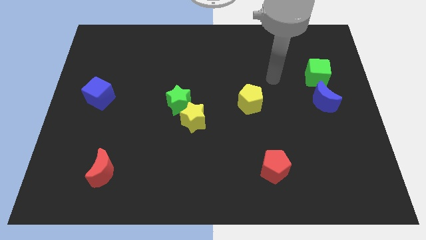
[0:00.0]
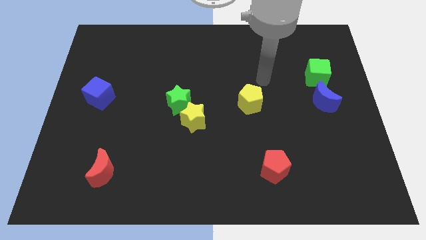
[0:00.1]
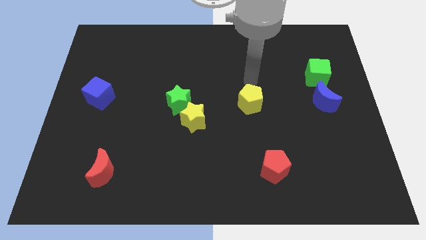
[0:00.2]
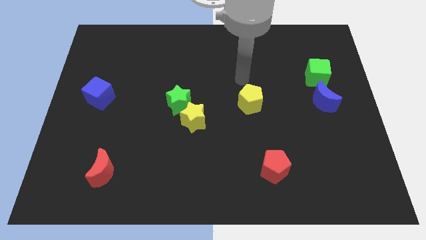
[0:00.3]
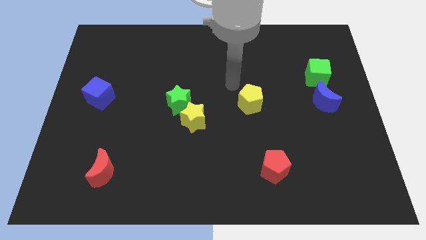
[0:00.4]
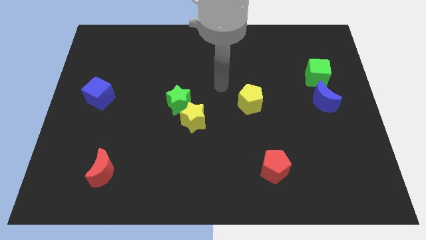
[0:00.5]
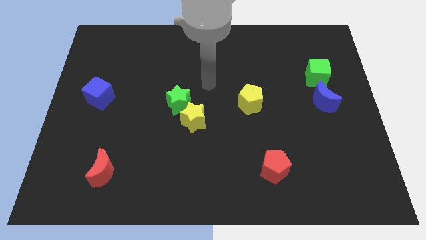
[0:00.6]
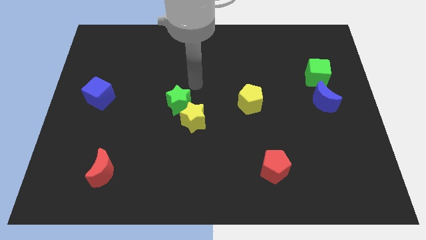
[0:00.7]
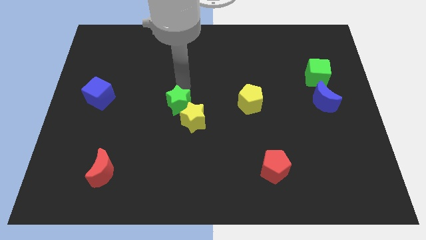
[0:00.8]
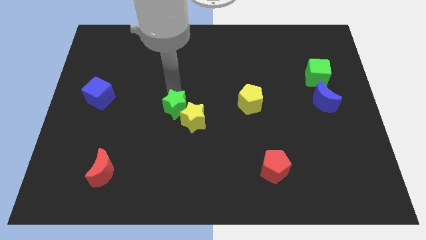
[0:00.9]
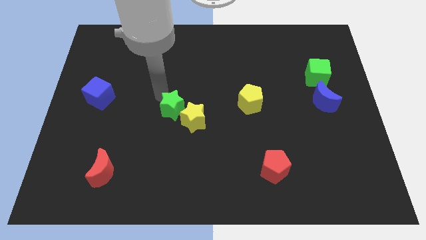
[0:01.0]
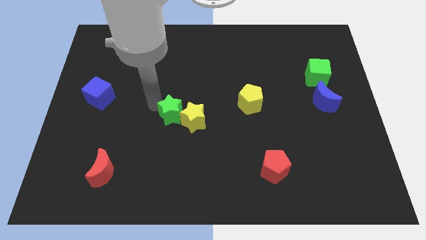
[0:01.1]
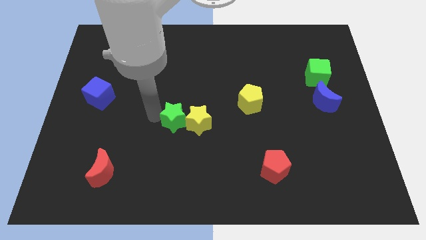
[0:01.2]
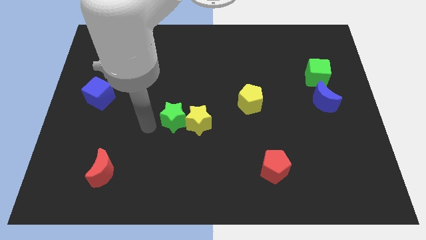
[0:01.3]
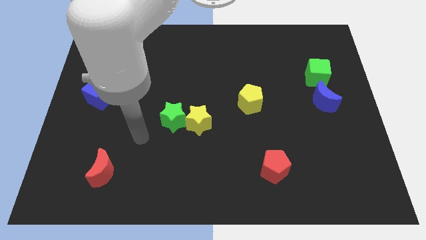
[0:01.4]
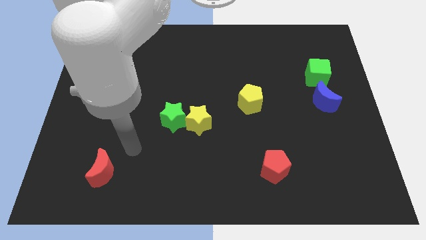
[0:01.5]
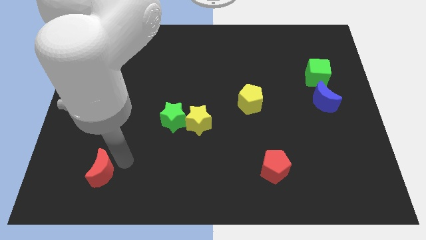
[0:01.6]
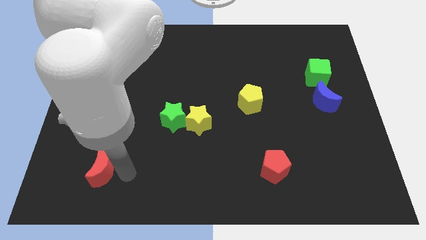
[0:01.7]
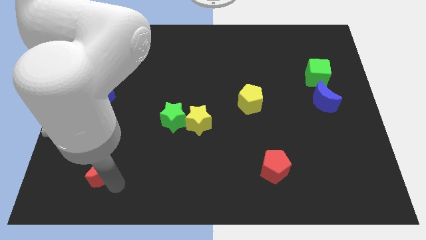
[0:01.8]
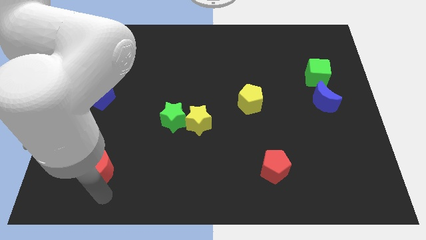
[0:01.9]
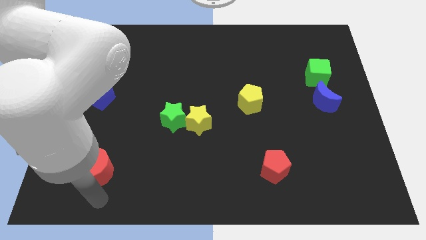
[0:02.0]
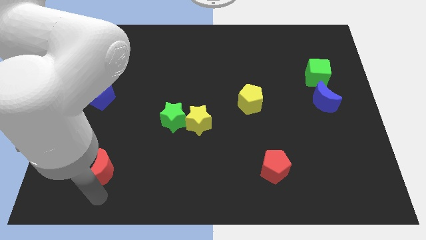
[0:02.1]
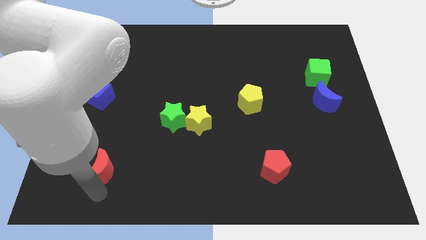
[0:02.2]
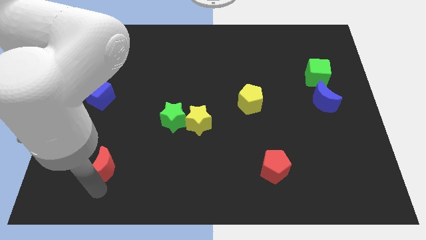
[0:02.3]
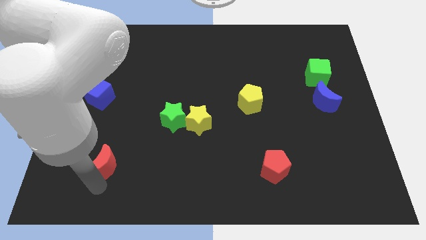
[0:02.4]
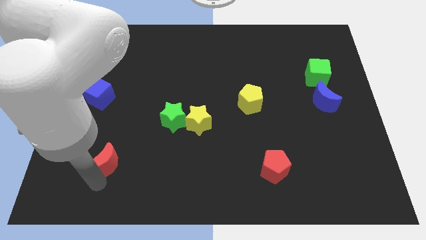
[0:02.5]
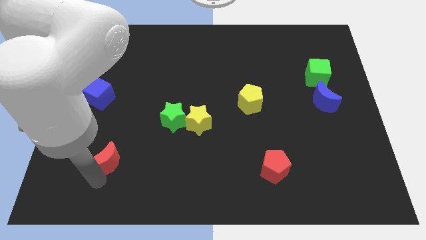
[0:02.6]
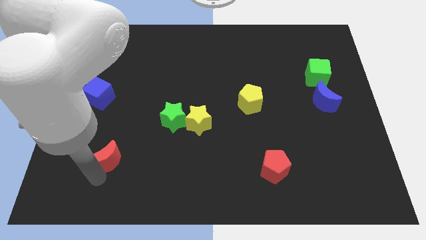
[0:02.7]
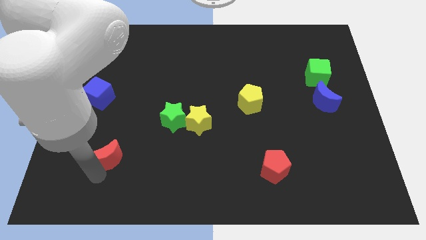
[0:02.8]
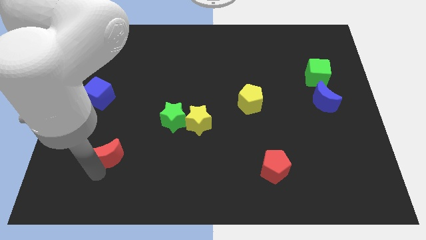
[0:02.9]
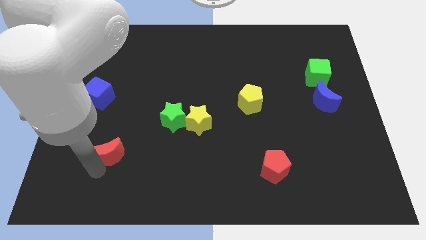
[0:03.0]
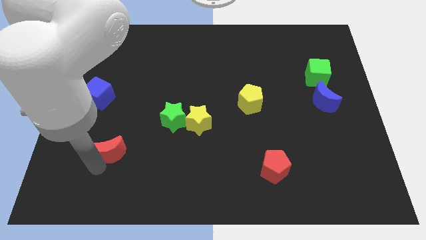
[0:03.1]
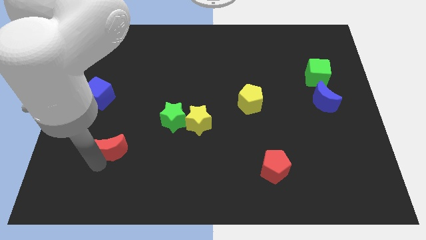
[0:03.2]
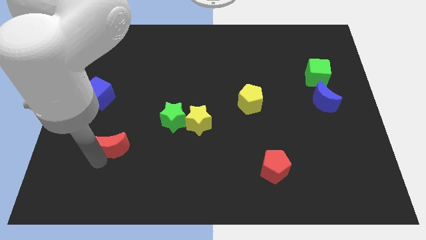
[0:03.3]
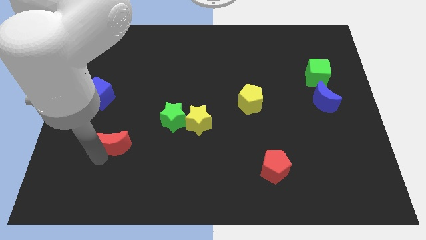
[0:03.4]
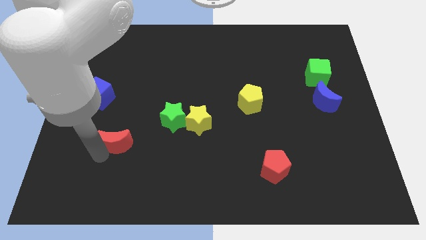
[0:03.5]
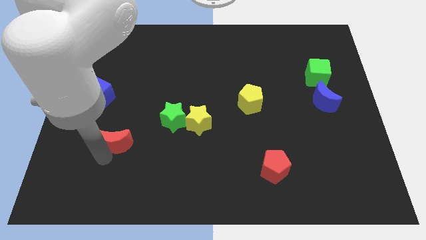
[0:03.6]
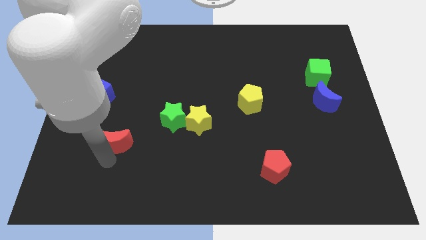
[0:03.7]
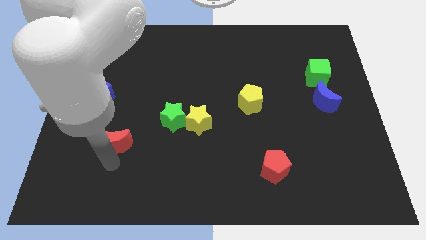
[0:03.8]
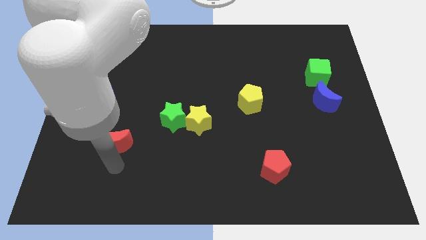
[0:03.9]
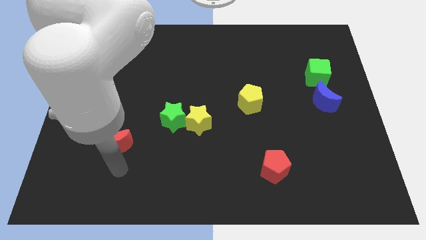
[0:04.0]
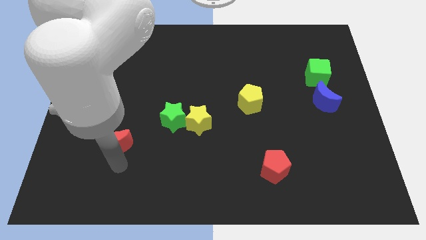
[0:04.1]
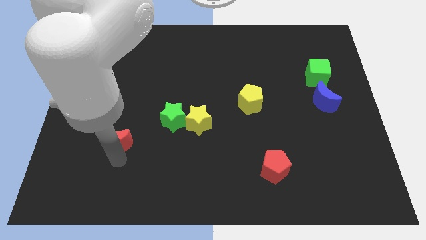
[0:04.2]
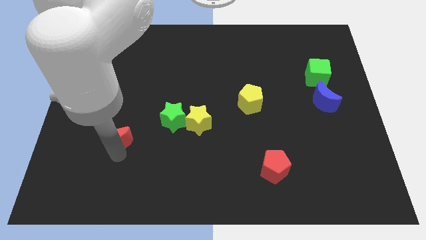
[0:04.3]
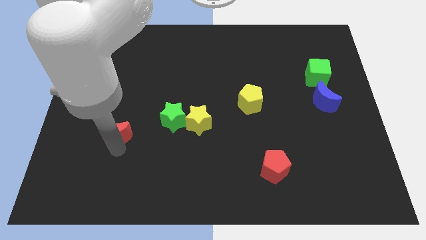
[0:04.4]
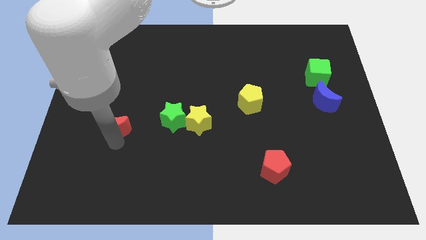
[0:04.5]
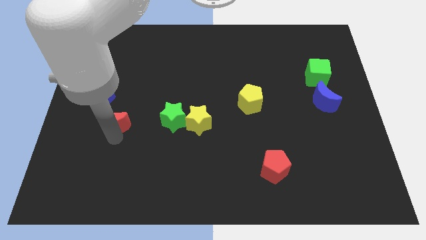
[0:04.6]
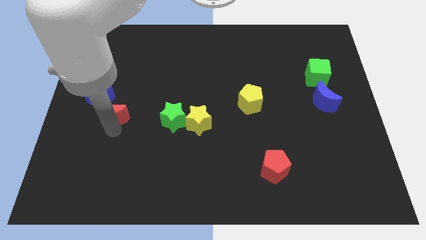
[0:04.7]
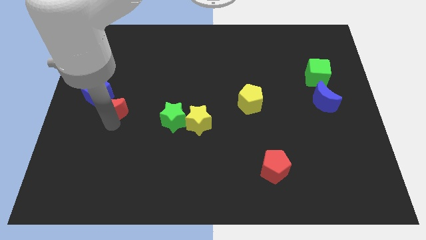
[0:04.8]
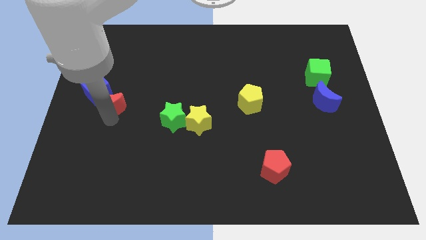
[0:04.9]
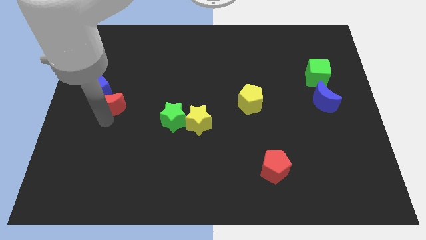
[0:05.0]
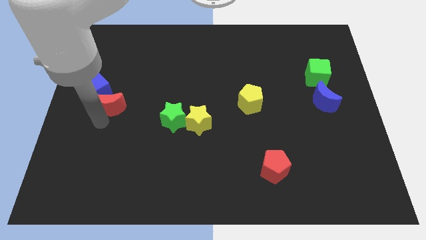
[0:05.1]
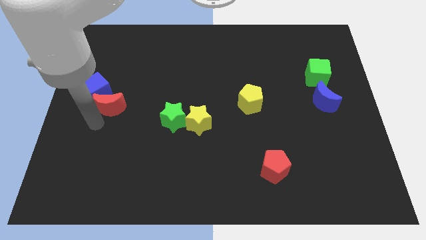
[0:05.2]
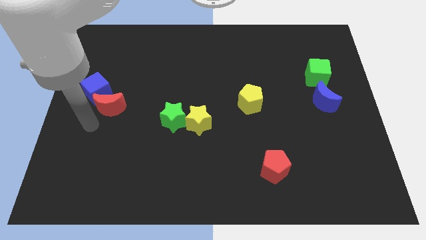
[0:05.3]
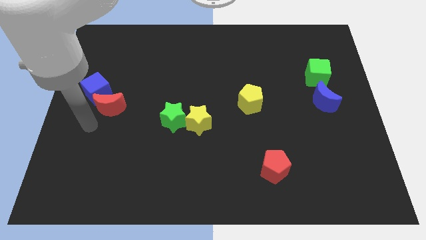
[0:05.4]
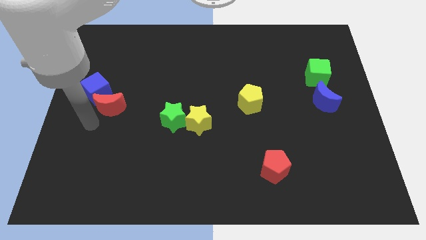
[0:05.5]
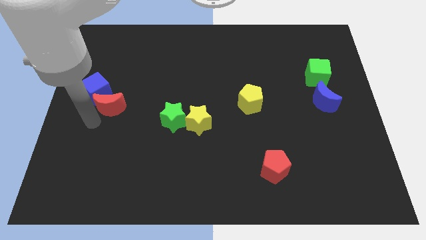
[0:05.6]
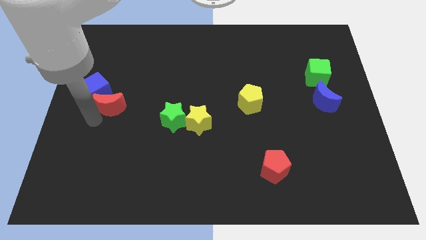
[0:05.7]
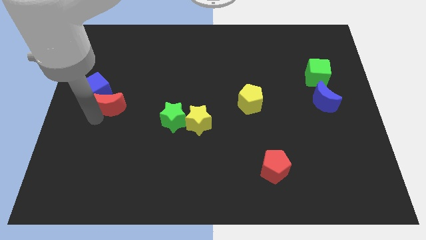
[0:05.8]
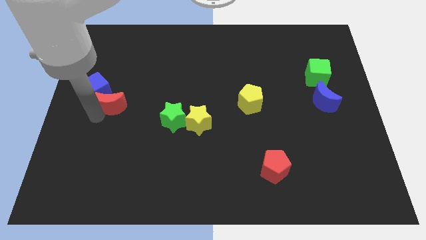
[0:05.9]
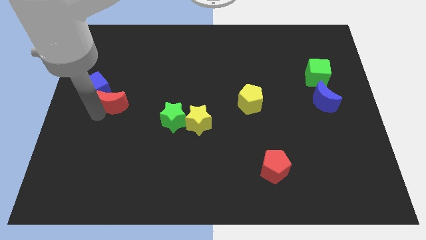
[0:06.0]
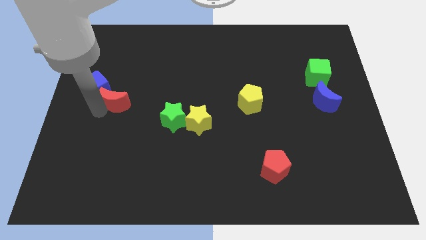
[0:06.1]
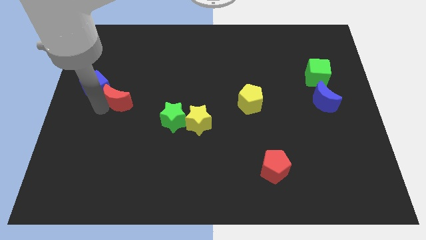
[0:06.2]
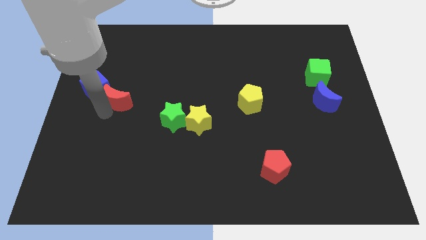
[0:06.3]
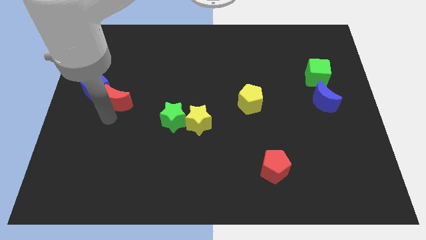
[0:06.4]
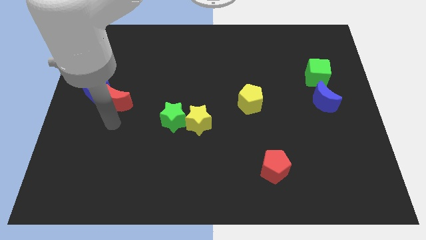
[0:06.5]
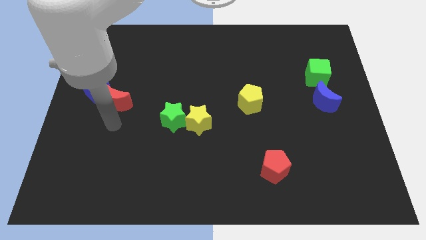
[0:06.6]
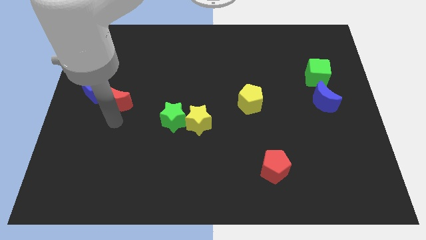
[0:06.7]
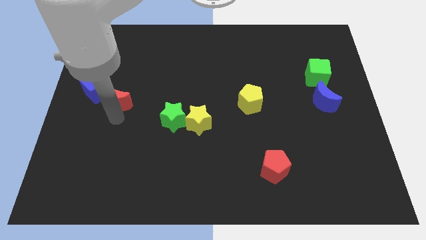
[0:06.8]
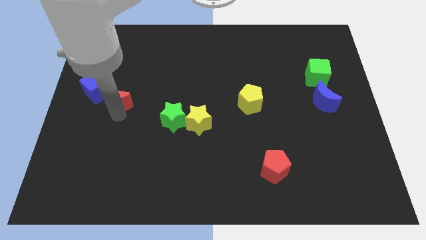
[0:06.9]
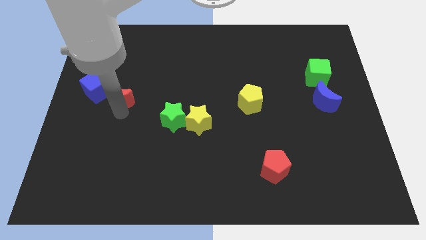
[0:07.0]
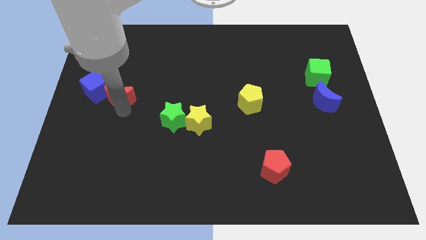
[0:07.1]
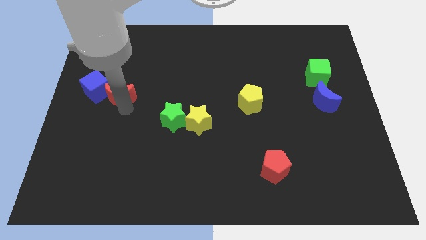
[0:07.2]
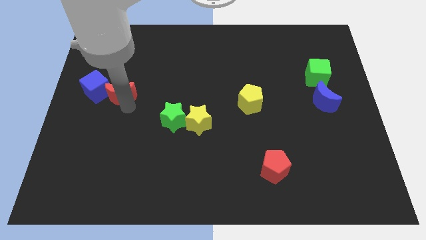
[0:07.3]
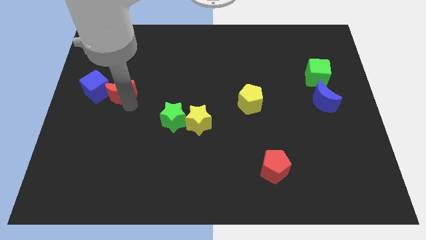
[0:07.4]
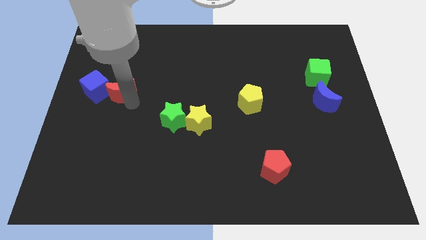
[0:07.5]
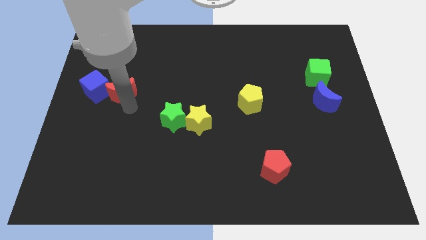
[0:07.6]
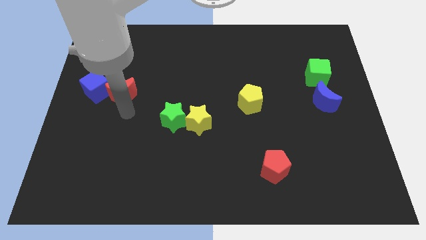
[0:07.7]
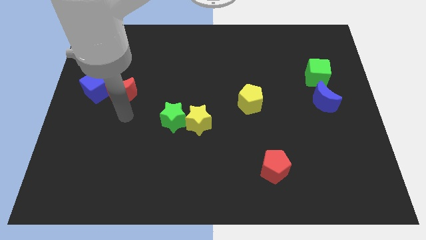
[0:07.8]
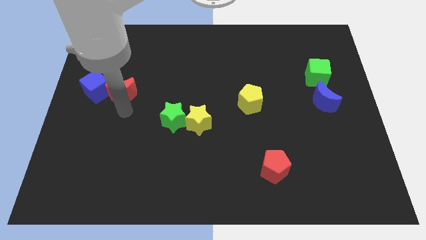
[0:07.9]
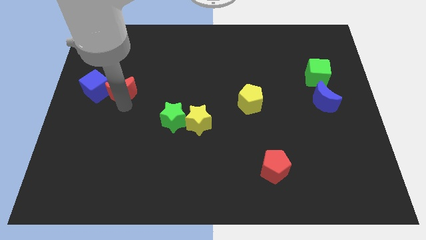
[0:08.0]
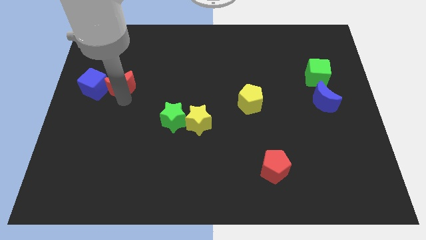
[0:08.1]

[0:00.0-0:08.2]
push the red moon to the top right side of the blue cube
